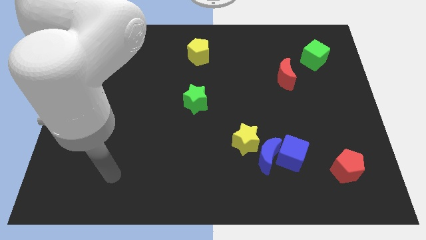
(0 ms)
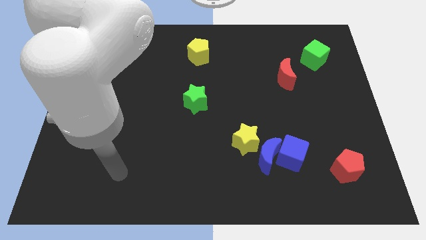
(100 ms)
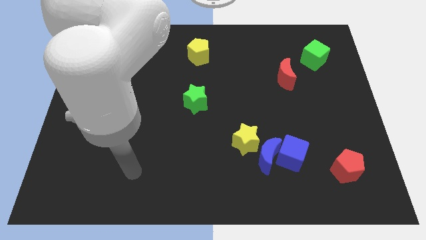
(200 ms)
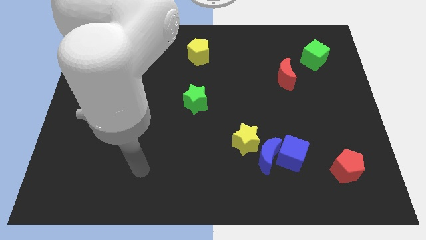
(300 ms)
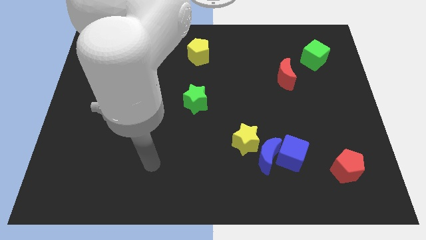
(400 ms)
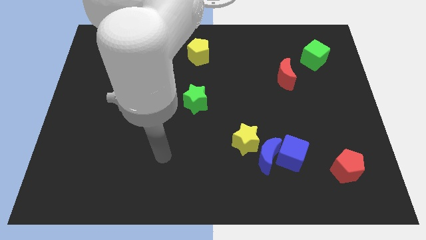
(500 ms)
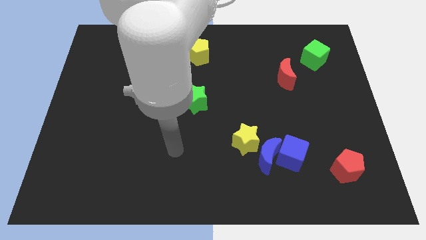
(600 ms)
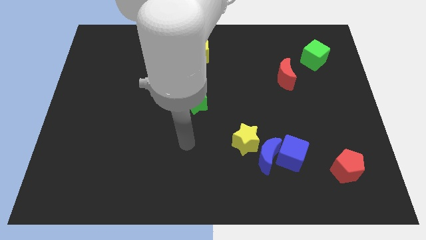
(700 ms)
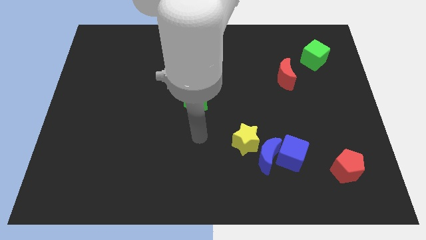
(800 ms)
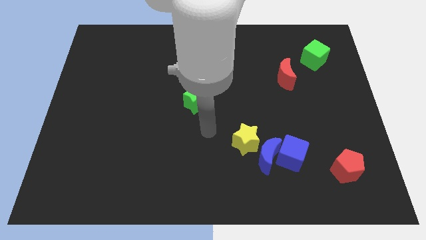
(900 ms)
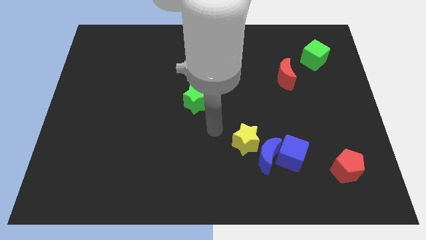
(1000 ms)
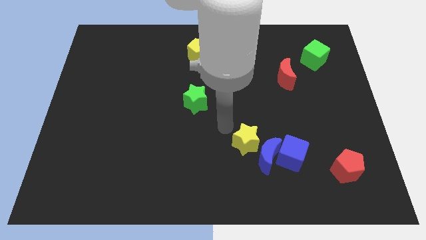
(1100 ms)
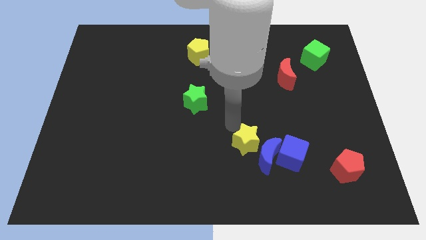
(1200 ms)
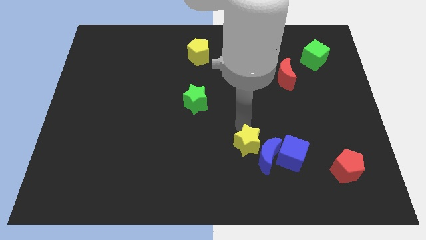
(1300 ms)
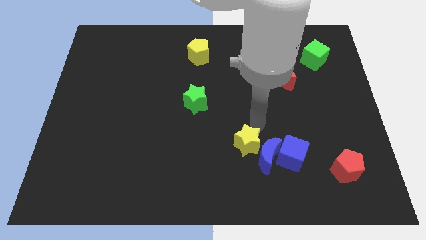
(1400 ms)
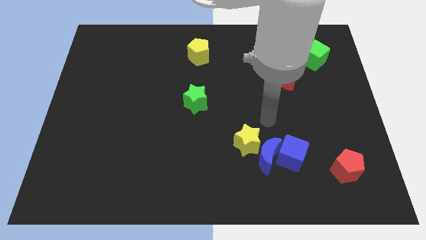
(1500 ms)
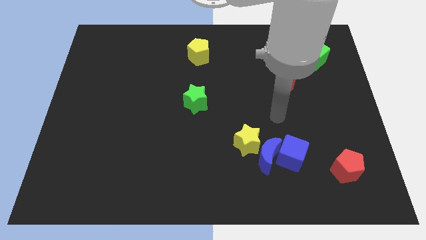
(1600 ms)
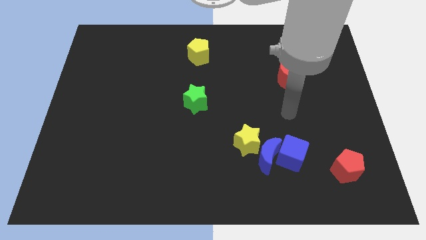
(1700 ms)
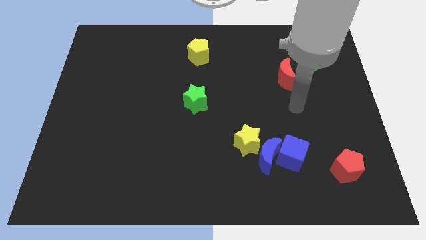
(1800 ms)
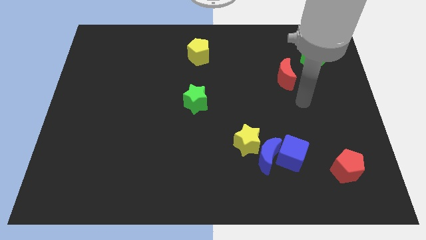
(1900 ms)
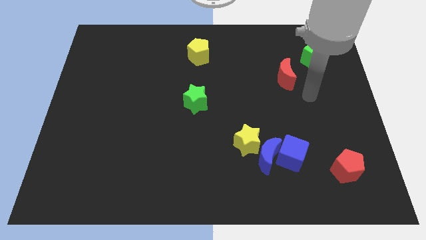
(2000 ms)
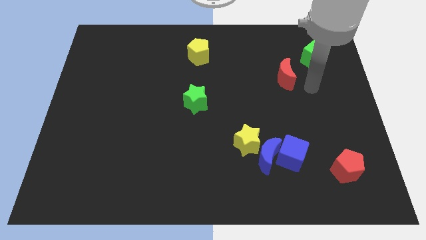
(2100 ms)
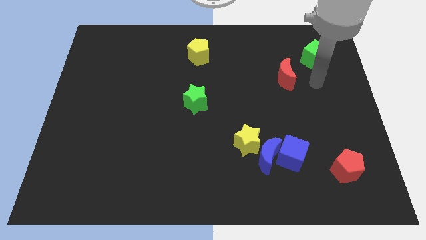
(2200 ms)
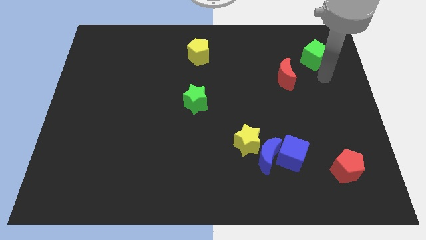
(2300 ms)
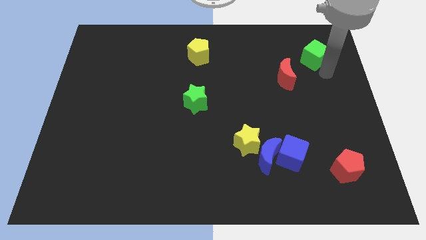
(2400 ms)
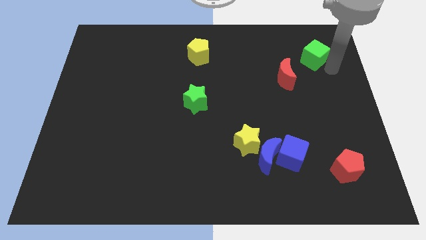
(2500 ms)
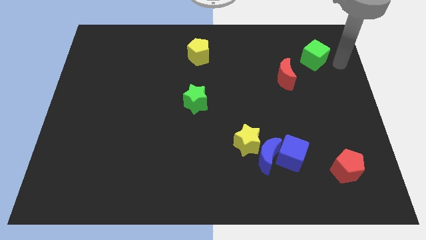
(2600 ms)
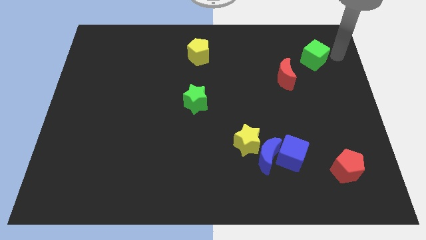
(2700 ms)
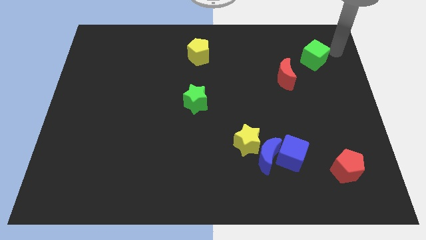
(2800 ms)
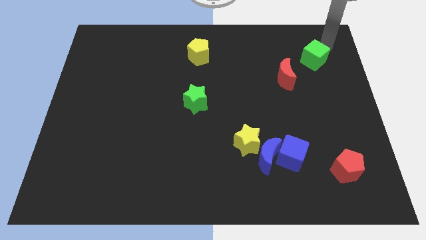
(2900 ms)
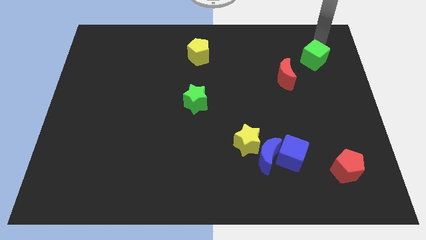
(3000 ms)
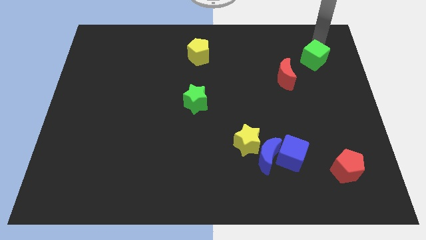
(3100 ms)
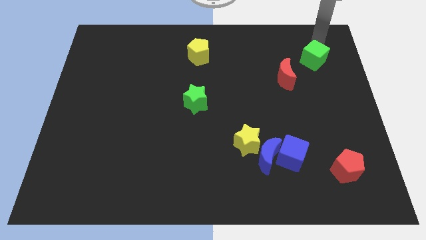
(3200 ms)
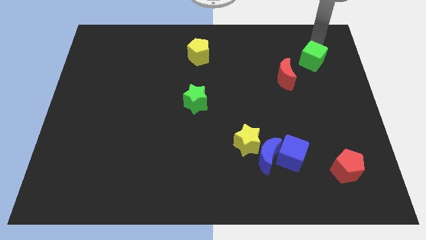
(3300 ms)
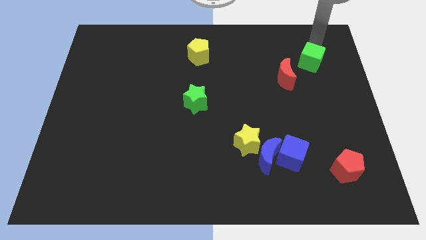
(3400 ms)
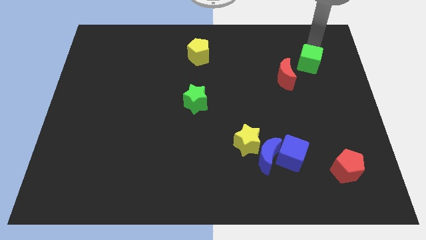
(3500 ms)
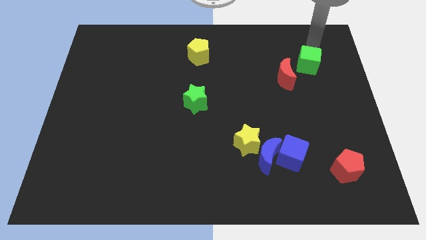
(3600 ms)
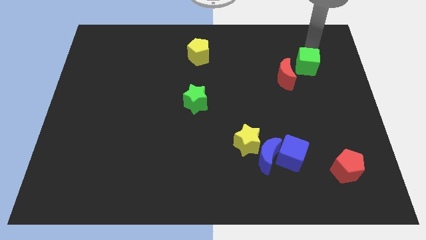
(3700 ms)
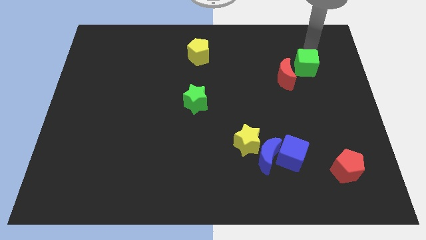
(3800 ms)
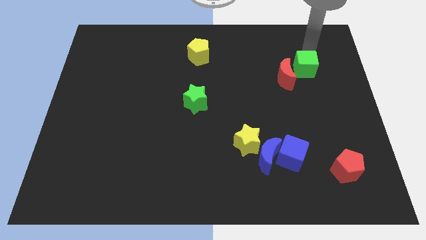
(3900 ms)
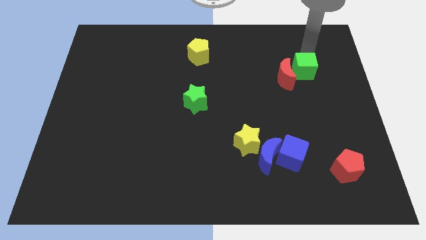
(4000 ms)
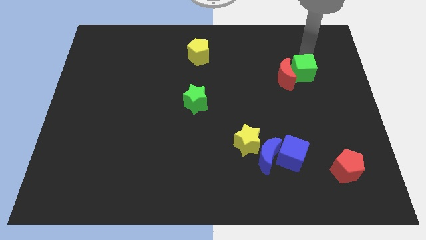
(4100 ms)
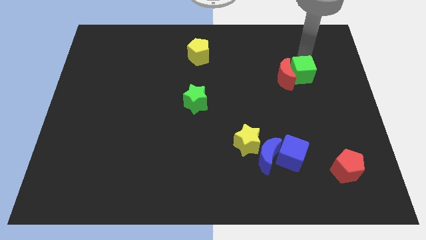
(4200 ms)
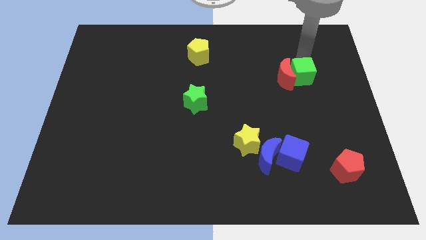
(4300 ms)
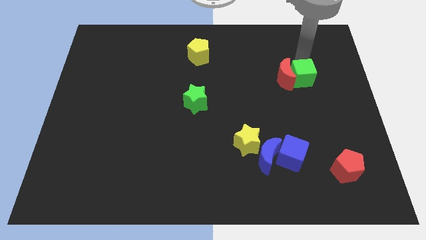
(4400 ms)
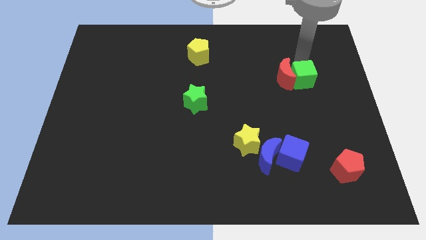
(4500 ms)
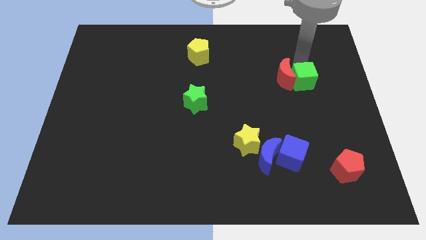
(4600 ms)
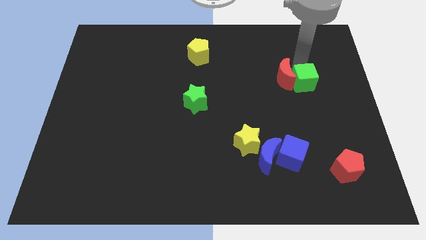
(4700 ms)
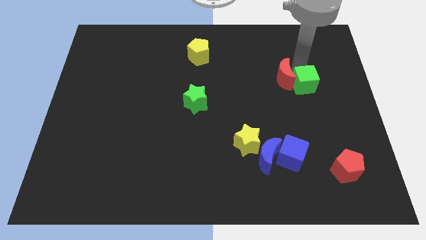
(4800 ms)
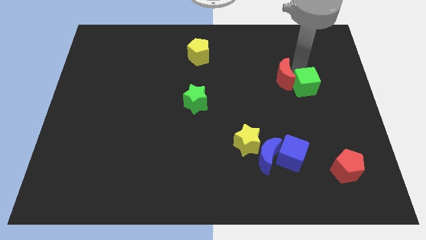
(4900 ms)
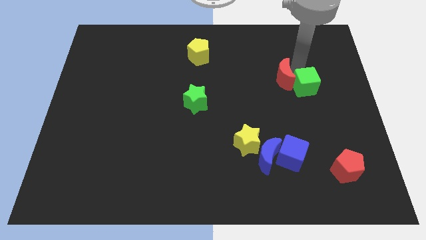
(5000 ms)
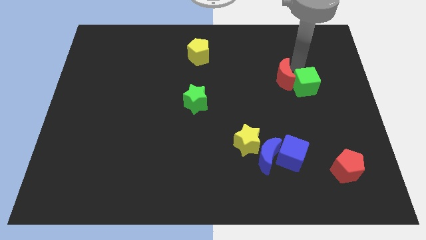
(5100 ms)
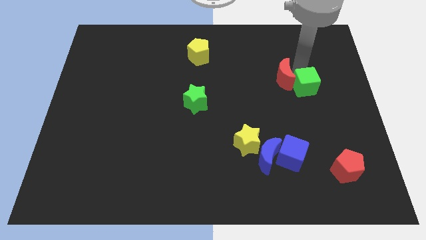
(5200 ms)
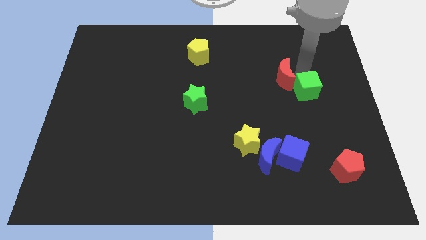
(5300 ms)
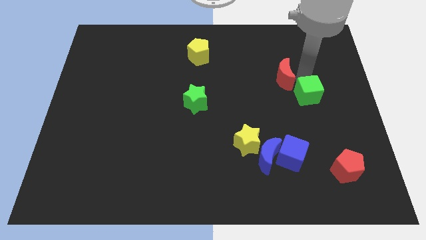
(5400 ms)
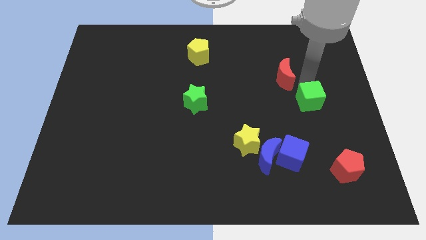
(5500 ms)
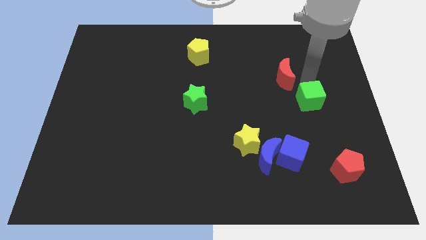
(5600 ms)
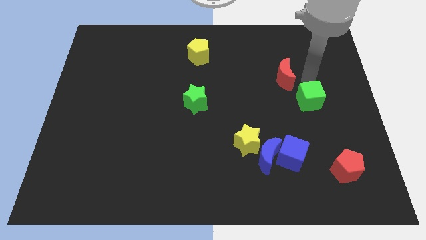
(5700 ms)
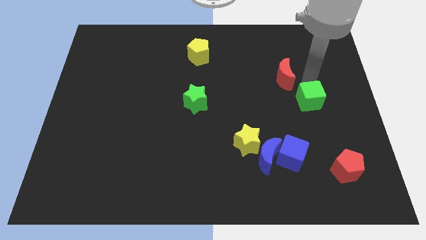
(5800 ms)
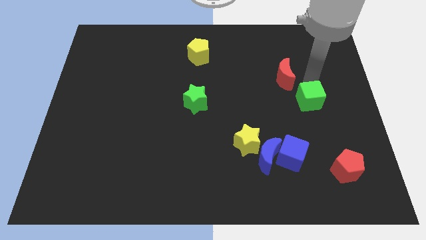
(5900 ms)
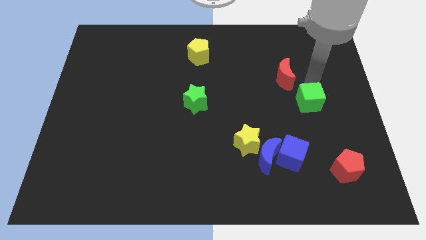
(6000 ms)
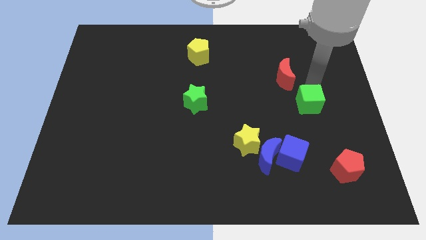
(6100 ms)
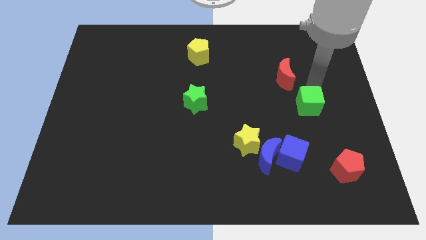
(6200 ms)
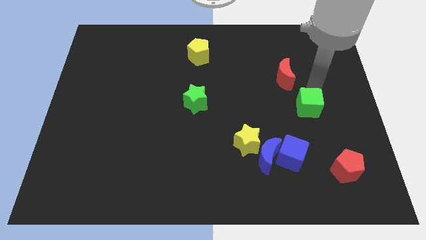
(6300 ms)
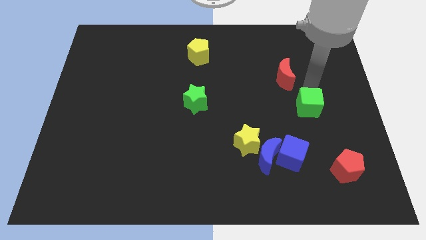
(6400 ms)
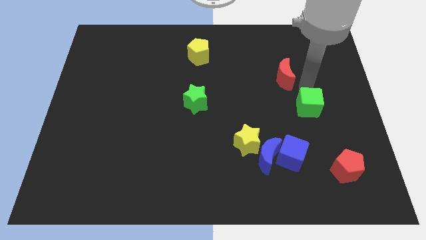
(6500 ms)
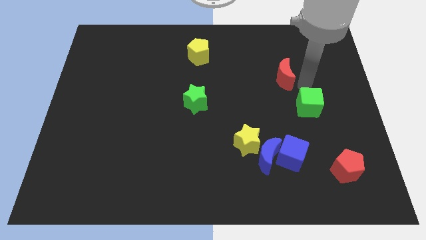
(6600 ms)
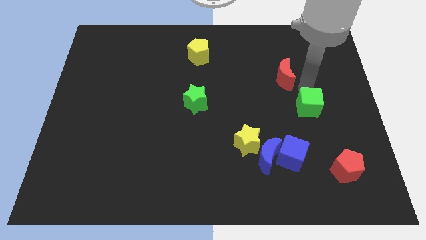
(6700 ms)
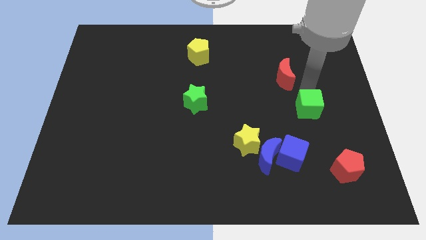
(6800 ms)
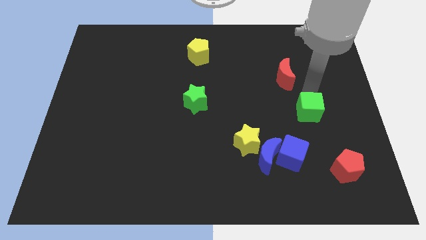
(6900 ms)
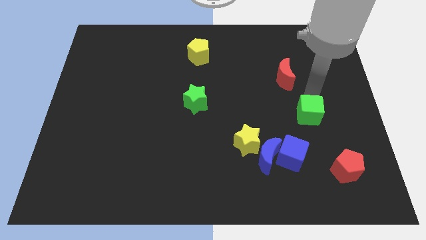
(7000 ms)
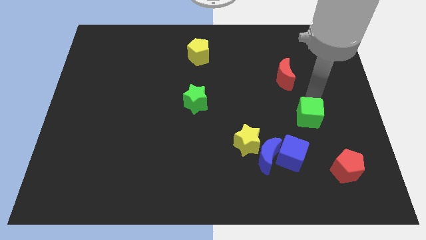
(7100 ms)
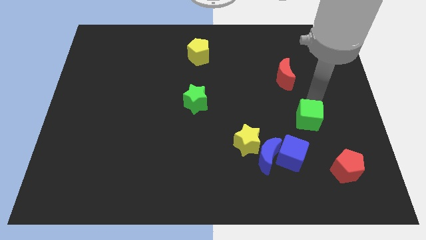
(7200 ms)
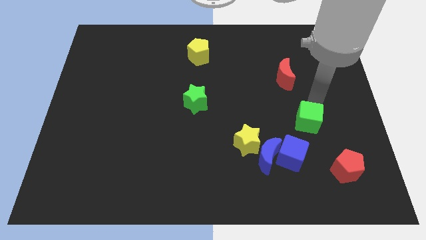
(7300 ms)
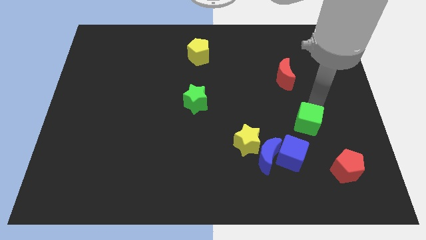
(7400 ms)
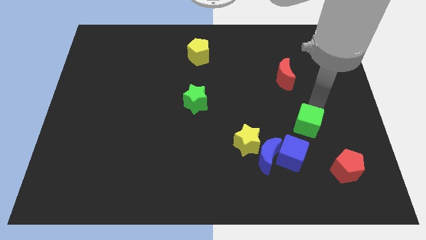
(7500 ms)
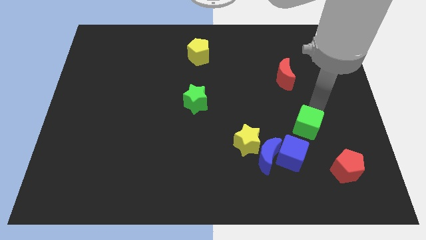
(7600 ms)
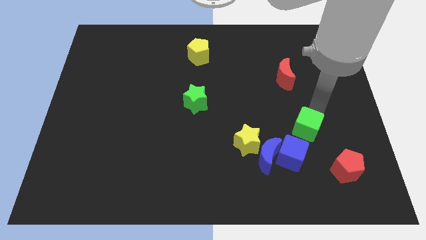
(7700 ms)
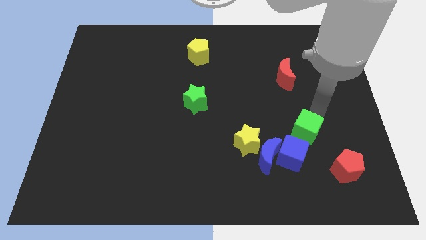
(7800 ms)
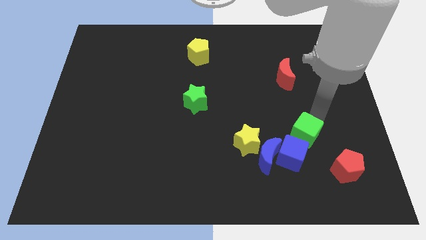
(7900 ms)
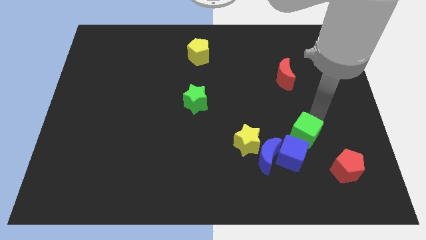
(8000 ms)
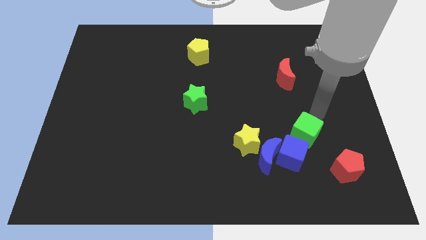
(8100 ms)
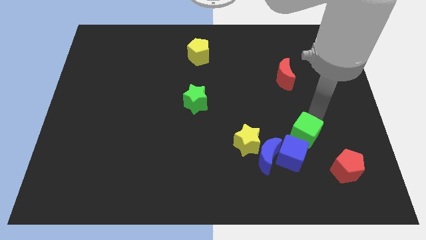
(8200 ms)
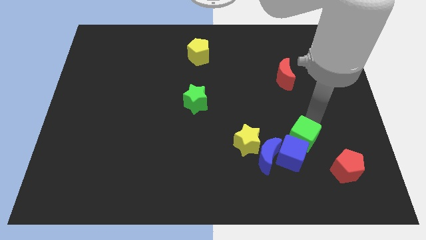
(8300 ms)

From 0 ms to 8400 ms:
put the green cube next to the blue cube
